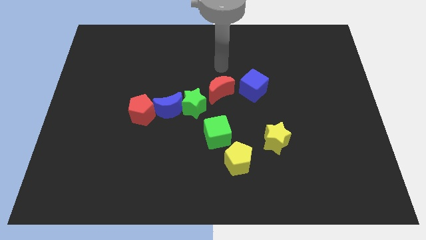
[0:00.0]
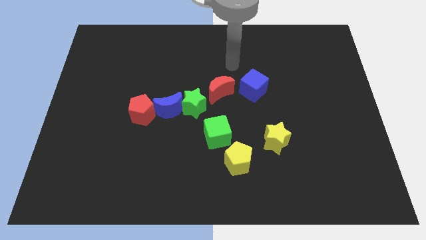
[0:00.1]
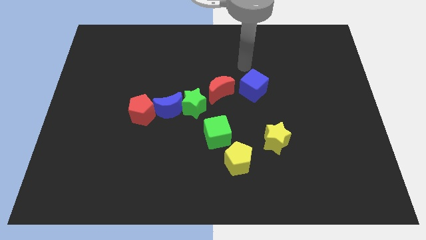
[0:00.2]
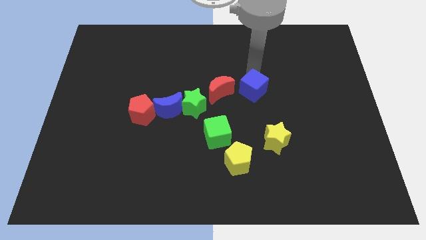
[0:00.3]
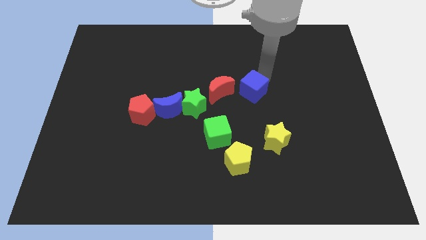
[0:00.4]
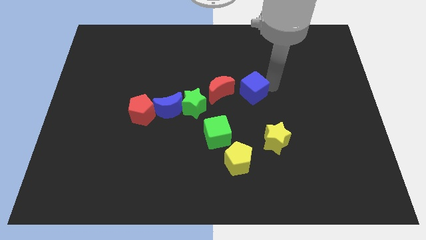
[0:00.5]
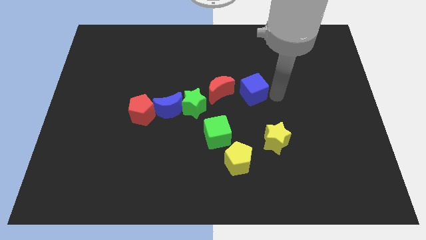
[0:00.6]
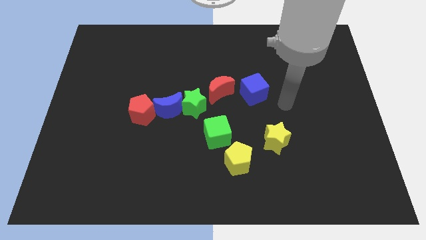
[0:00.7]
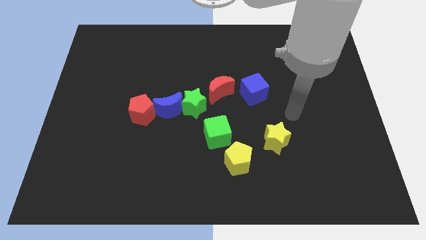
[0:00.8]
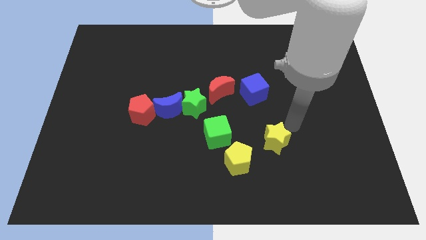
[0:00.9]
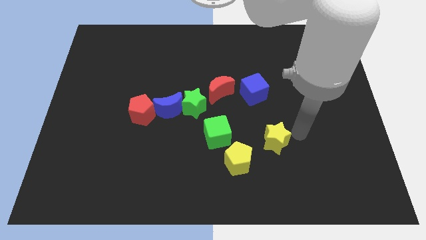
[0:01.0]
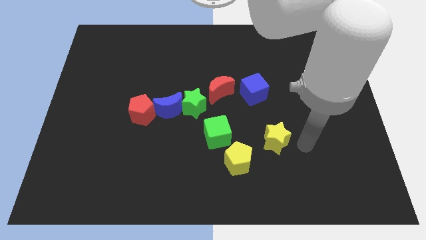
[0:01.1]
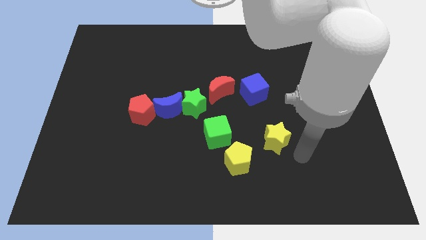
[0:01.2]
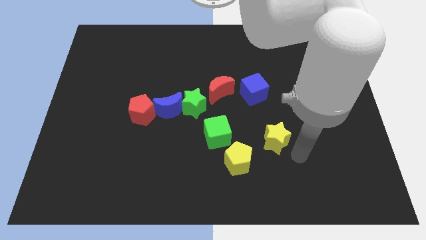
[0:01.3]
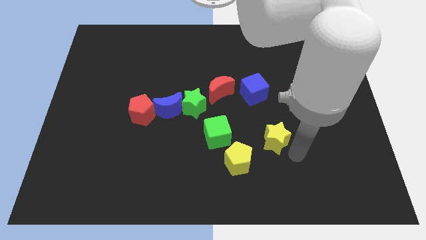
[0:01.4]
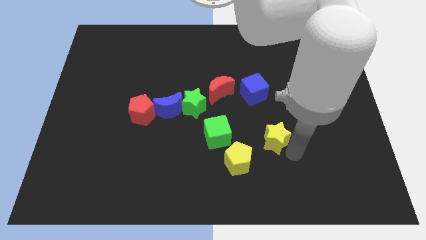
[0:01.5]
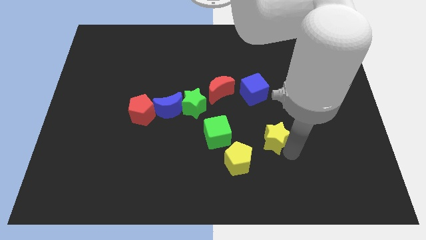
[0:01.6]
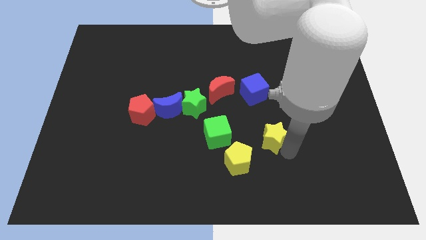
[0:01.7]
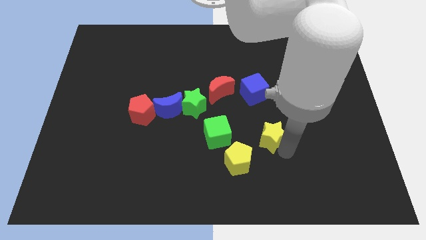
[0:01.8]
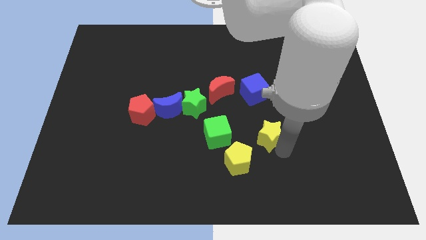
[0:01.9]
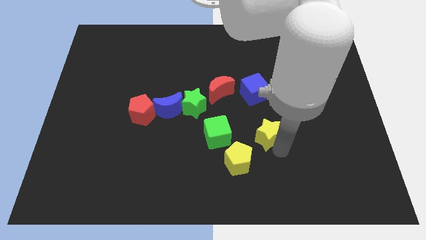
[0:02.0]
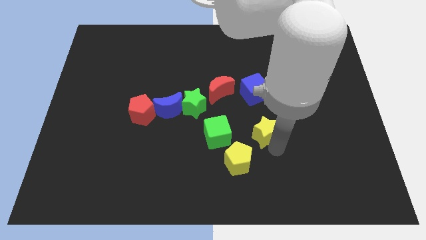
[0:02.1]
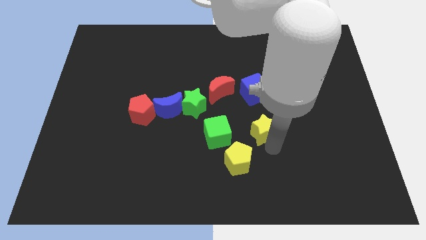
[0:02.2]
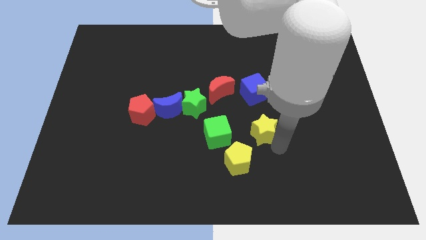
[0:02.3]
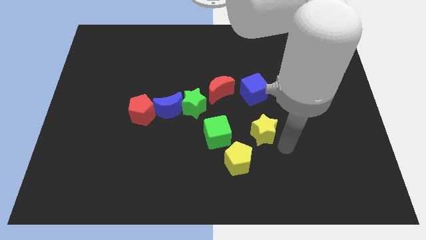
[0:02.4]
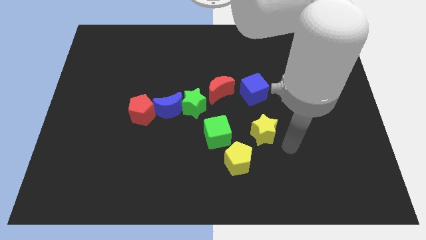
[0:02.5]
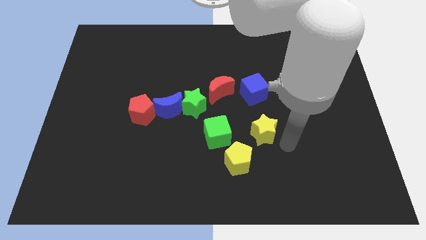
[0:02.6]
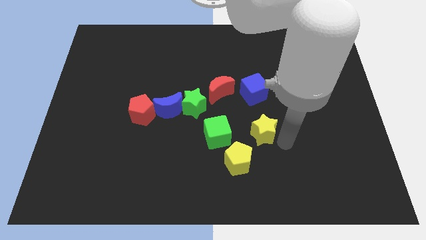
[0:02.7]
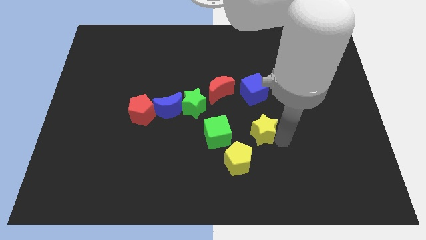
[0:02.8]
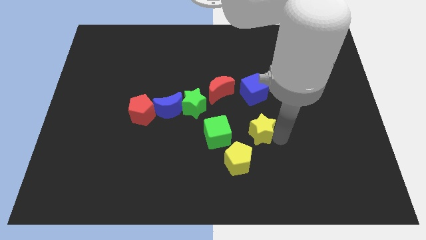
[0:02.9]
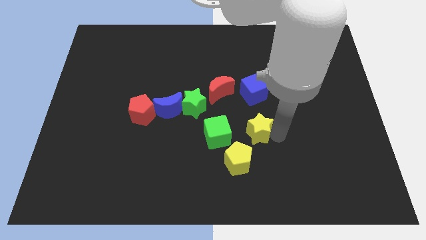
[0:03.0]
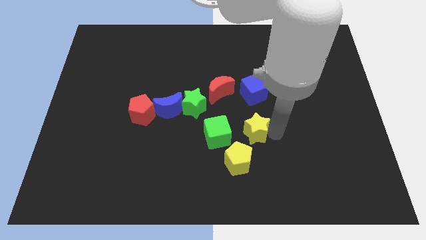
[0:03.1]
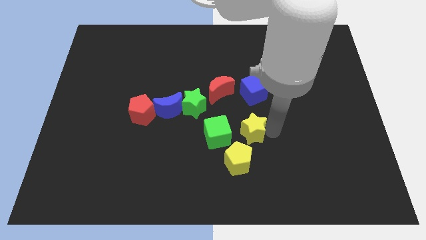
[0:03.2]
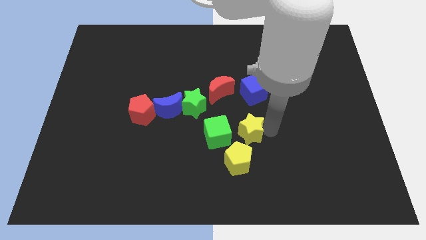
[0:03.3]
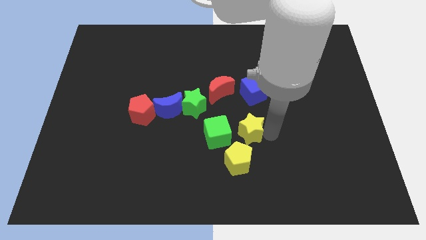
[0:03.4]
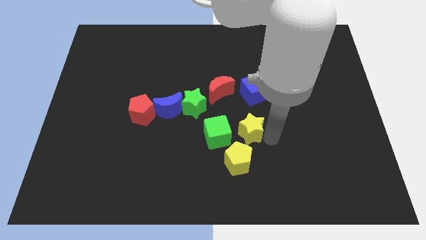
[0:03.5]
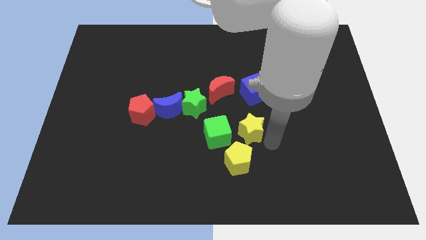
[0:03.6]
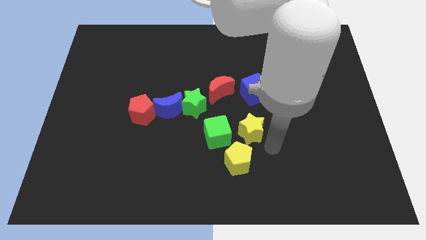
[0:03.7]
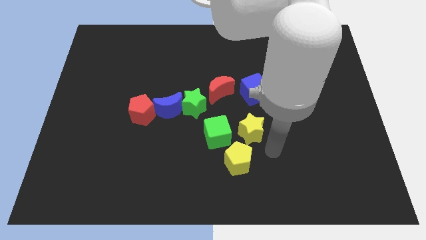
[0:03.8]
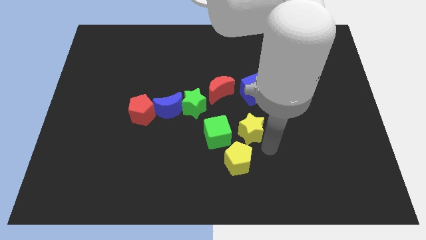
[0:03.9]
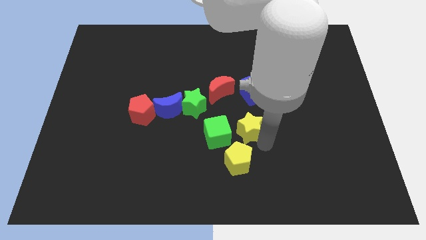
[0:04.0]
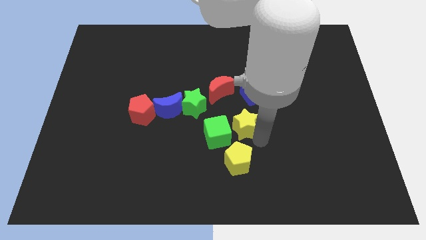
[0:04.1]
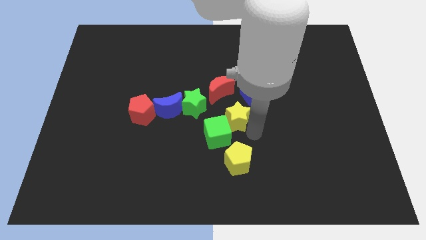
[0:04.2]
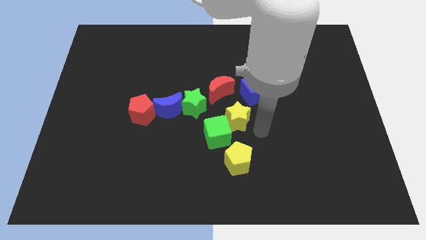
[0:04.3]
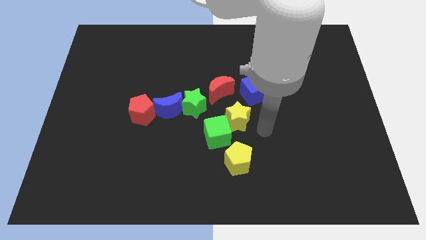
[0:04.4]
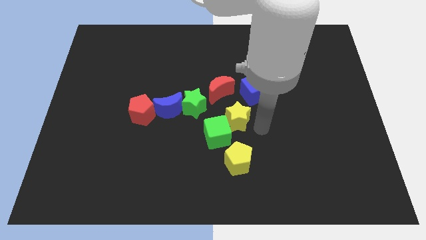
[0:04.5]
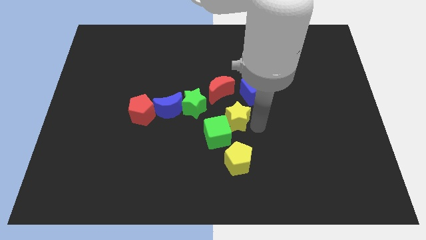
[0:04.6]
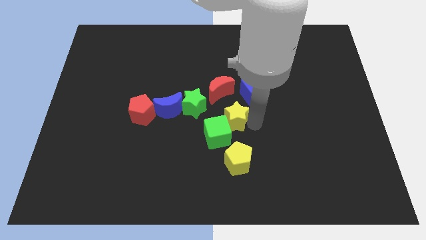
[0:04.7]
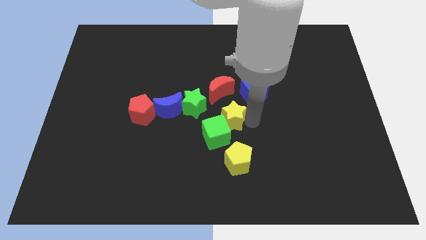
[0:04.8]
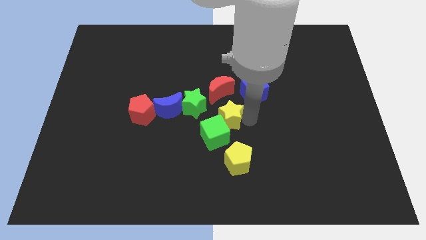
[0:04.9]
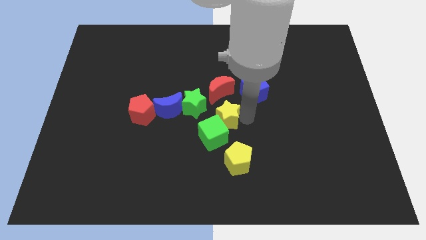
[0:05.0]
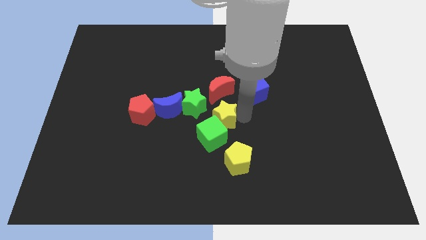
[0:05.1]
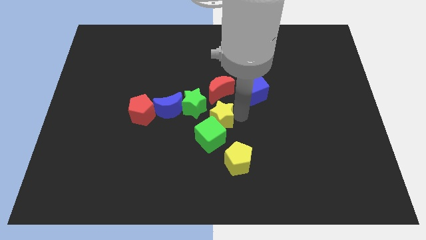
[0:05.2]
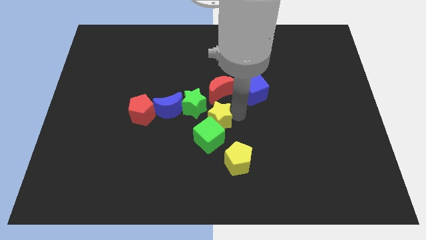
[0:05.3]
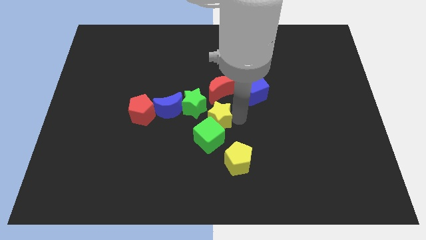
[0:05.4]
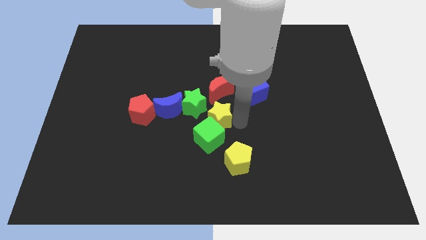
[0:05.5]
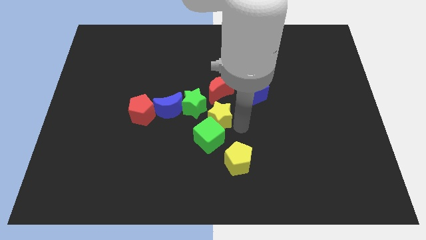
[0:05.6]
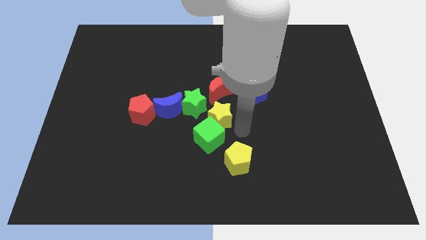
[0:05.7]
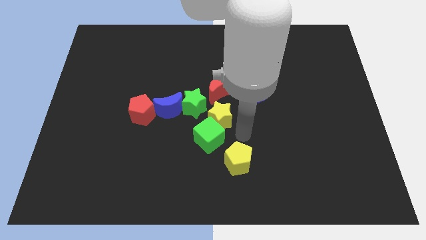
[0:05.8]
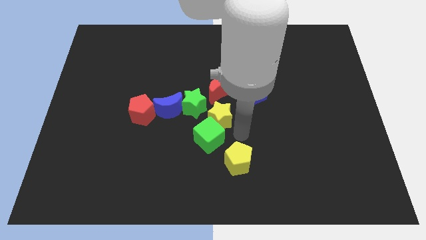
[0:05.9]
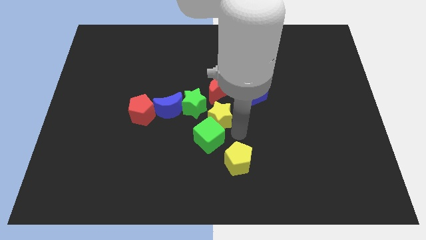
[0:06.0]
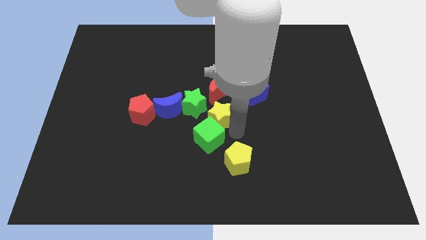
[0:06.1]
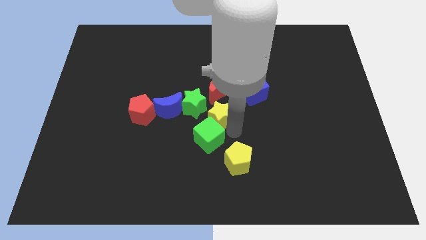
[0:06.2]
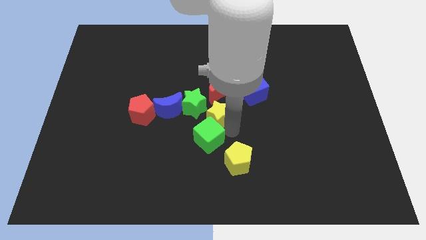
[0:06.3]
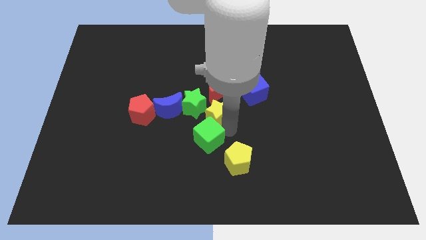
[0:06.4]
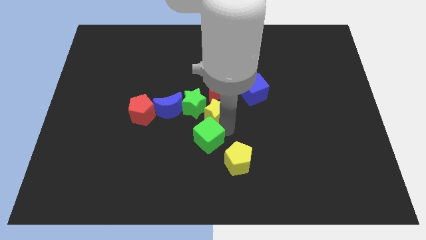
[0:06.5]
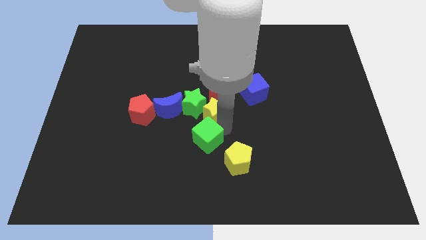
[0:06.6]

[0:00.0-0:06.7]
move the yellow star next to the green star

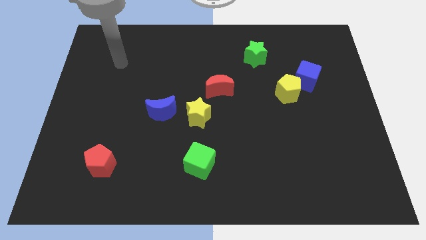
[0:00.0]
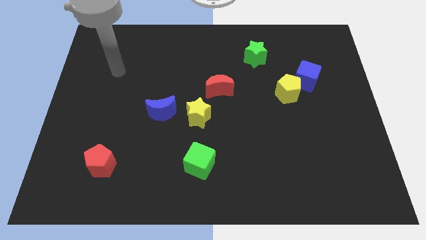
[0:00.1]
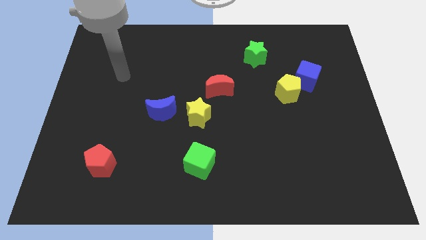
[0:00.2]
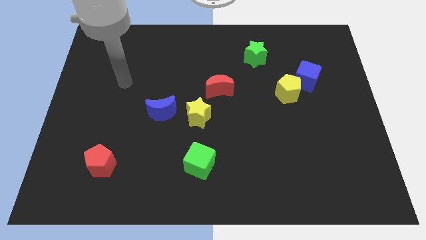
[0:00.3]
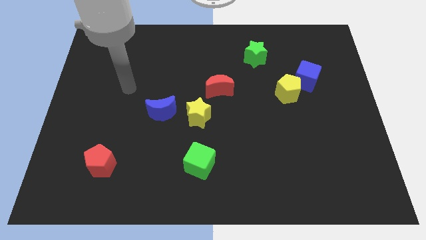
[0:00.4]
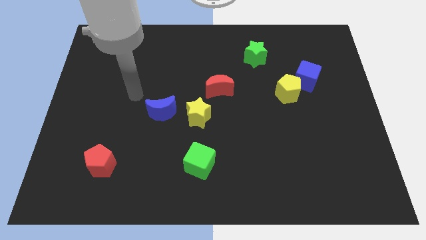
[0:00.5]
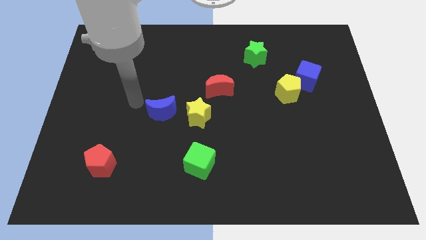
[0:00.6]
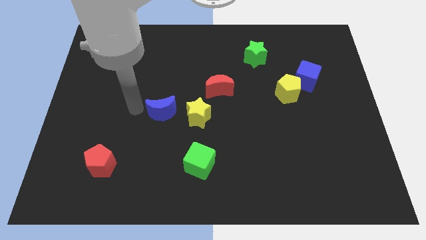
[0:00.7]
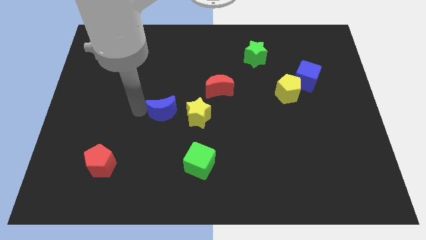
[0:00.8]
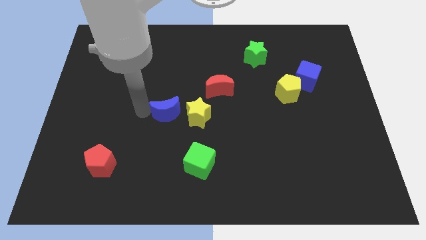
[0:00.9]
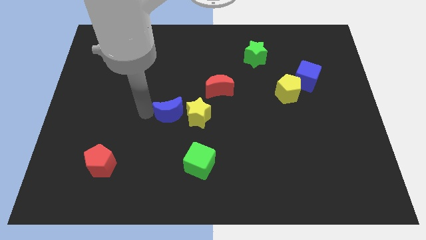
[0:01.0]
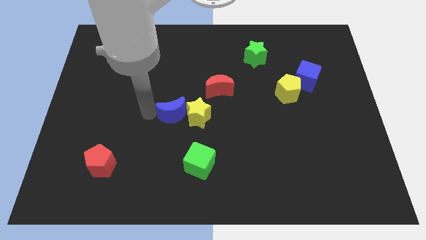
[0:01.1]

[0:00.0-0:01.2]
move the blue moon close to the yellow star
